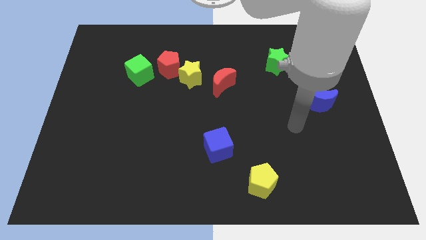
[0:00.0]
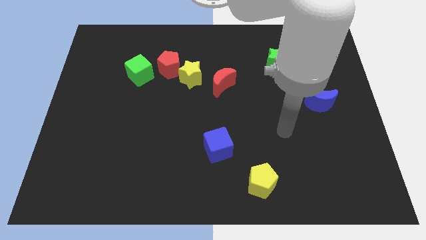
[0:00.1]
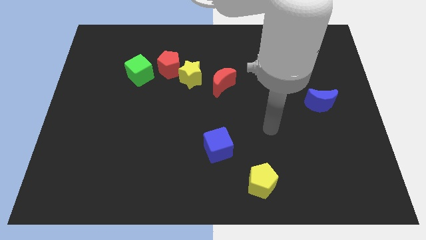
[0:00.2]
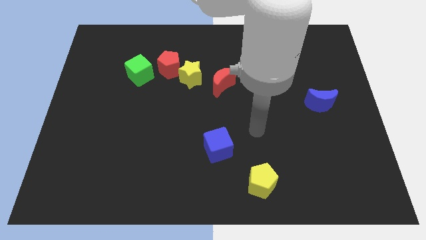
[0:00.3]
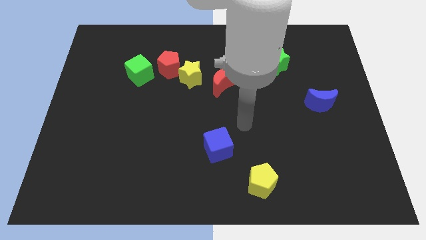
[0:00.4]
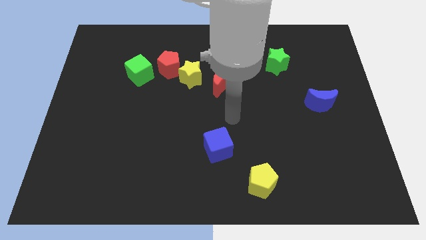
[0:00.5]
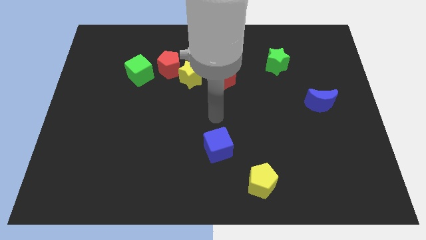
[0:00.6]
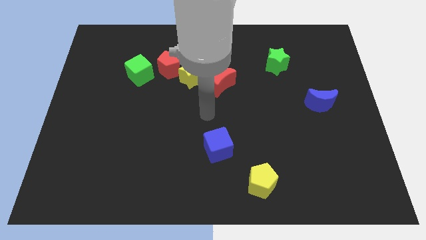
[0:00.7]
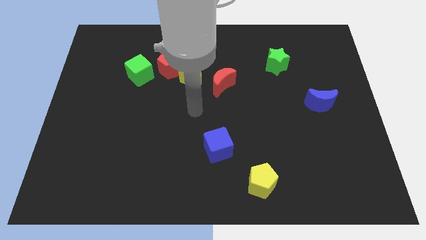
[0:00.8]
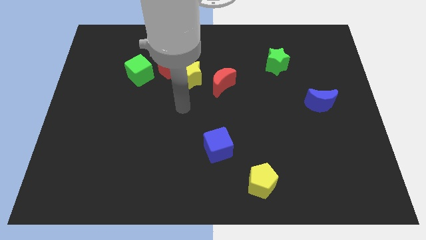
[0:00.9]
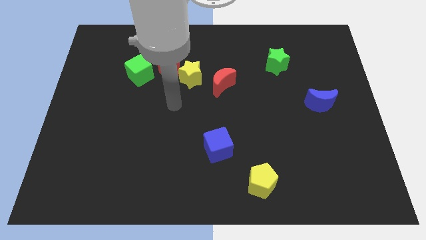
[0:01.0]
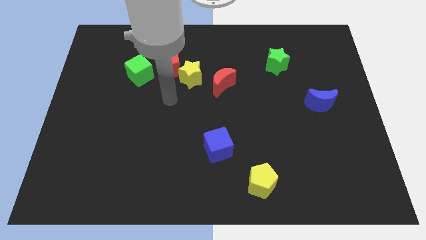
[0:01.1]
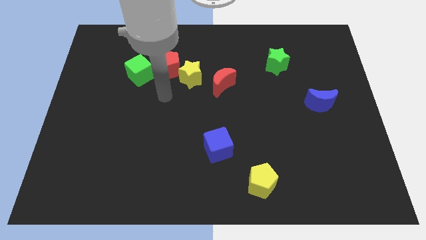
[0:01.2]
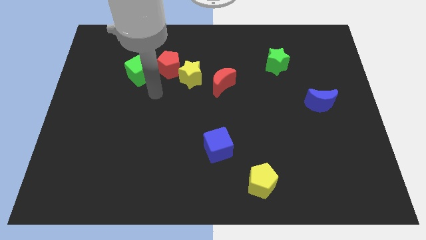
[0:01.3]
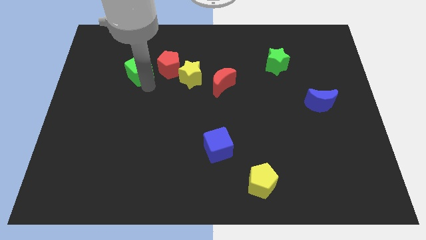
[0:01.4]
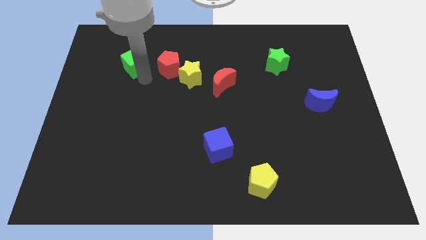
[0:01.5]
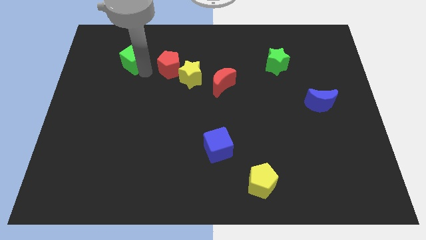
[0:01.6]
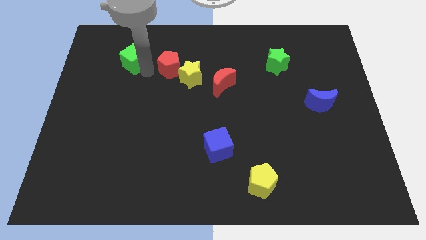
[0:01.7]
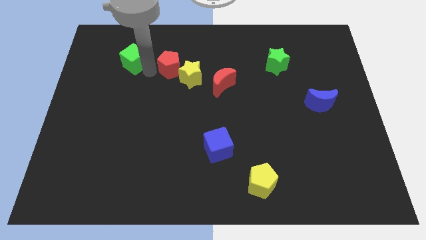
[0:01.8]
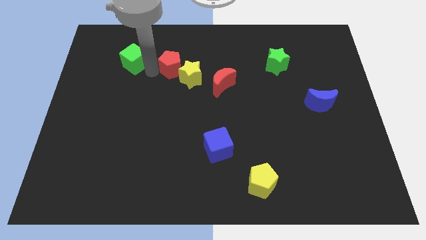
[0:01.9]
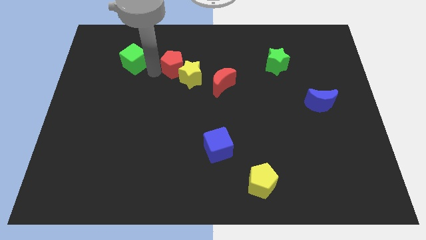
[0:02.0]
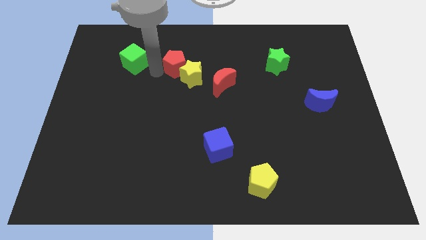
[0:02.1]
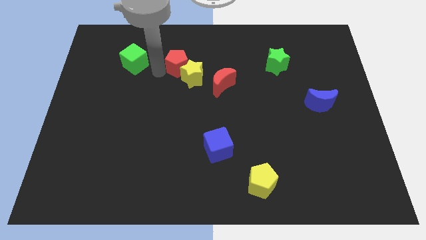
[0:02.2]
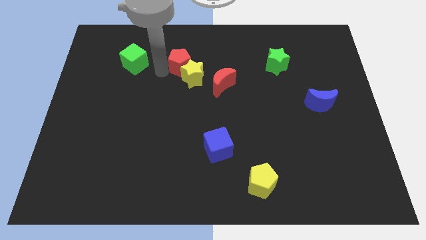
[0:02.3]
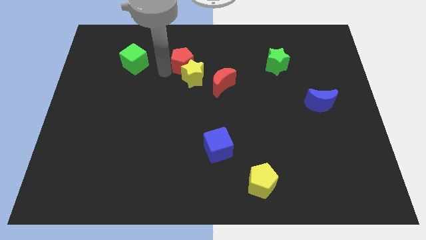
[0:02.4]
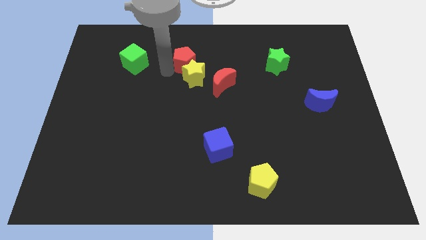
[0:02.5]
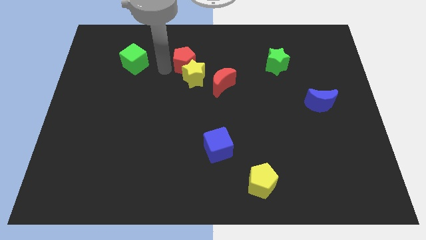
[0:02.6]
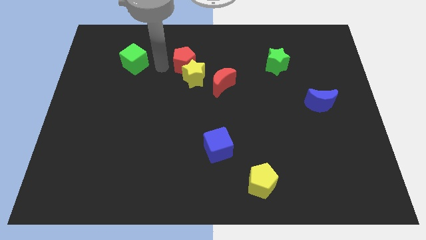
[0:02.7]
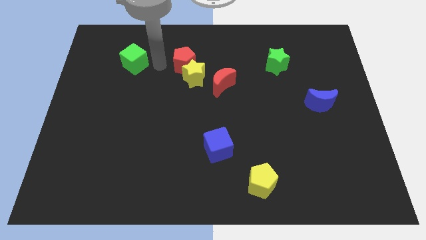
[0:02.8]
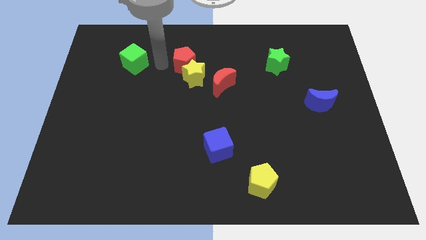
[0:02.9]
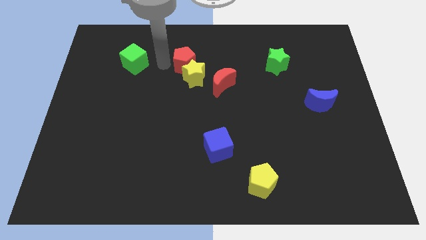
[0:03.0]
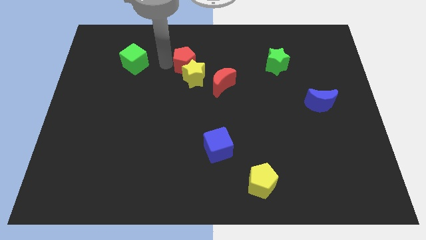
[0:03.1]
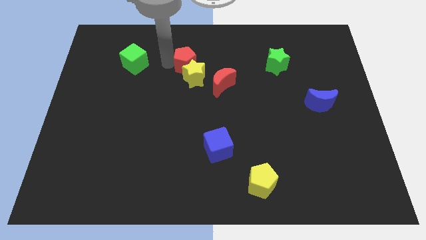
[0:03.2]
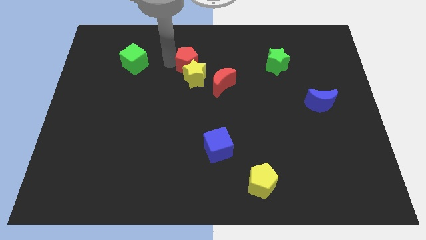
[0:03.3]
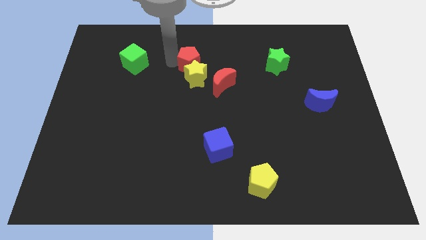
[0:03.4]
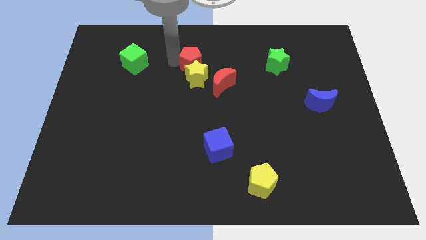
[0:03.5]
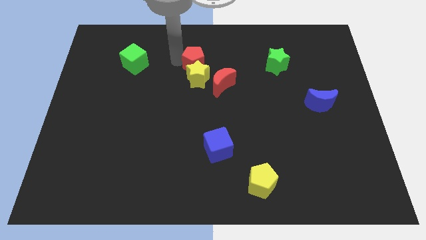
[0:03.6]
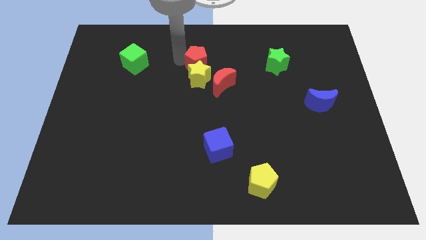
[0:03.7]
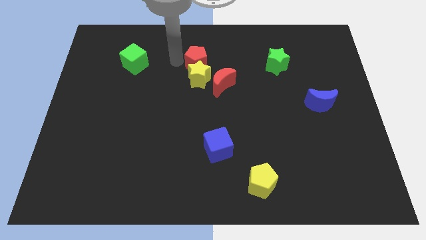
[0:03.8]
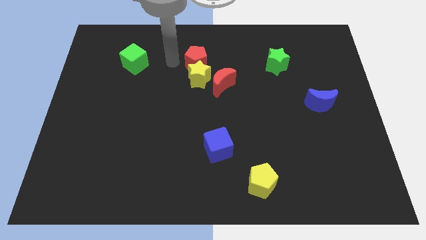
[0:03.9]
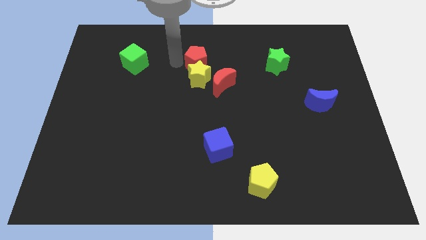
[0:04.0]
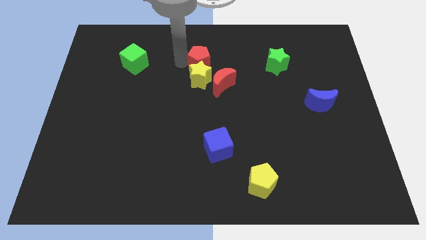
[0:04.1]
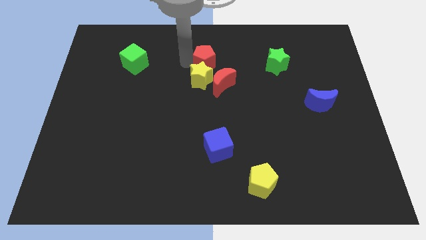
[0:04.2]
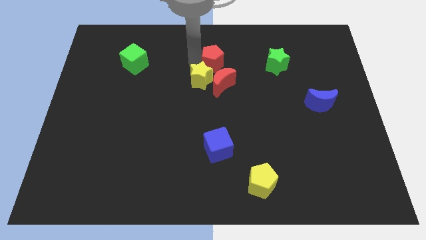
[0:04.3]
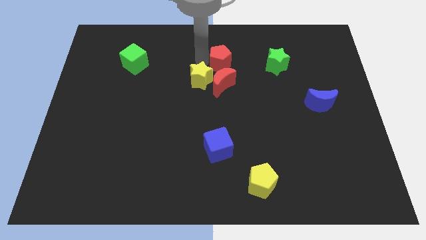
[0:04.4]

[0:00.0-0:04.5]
put the red pentagon left of the green star

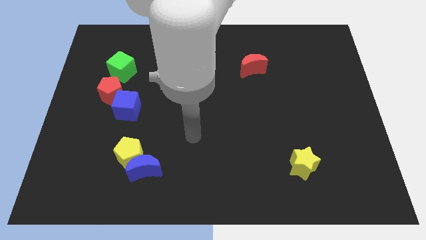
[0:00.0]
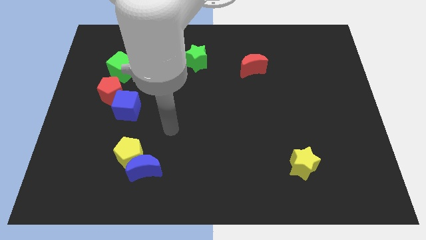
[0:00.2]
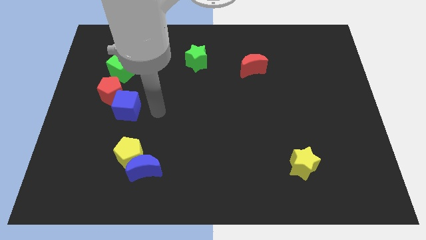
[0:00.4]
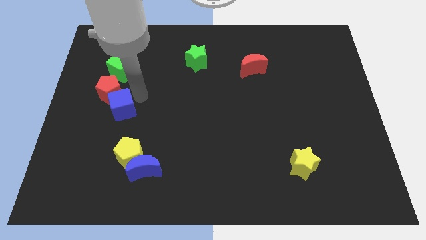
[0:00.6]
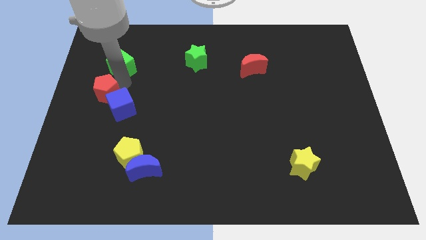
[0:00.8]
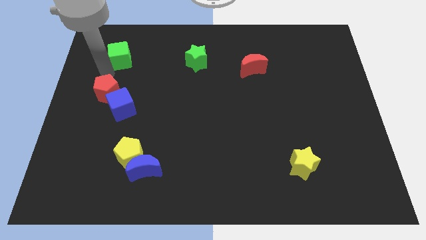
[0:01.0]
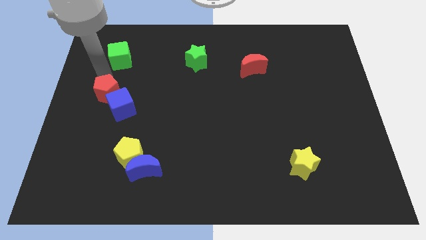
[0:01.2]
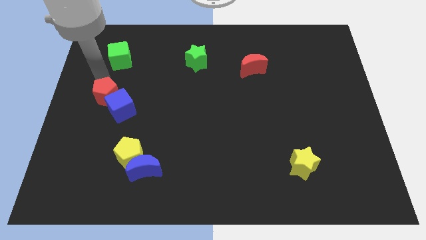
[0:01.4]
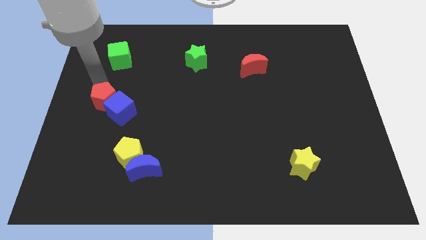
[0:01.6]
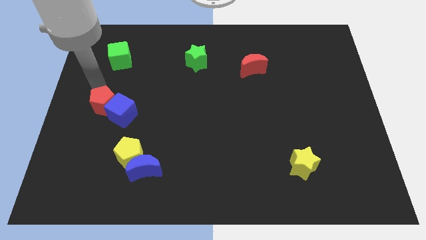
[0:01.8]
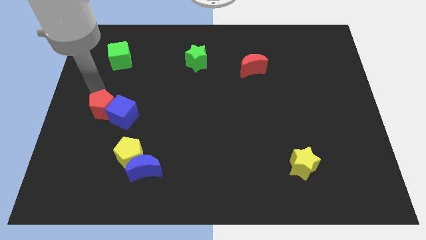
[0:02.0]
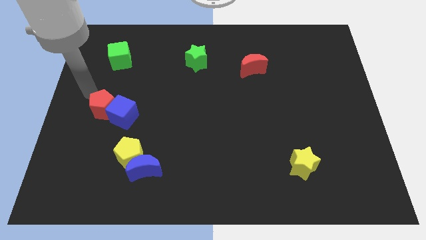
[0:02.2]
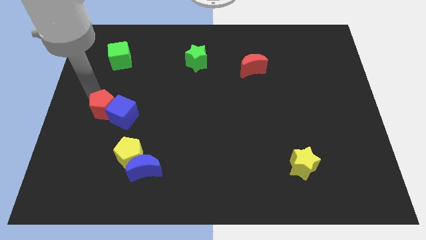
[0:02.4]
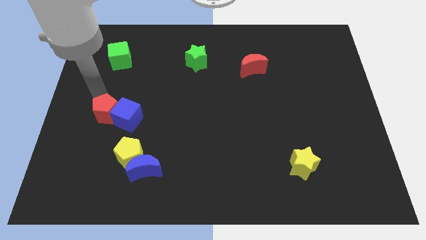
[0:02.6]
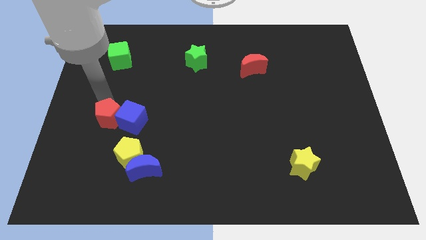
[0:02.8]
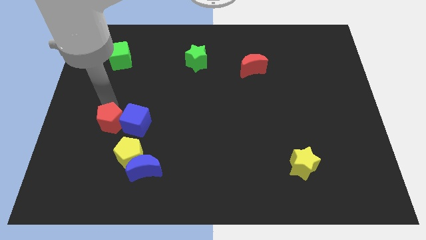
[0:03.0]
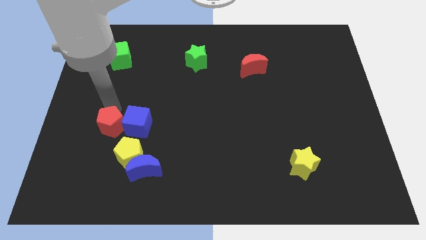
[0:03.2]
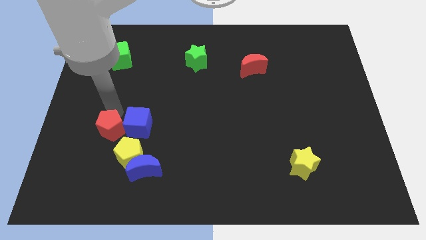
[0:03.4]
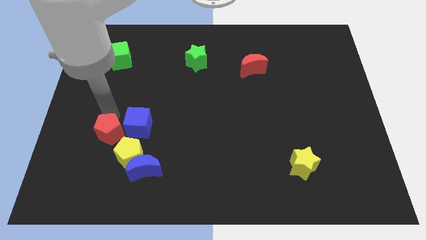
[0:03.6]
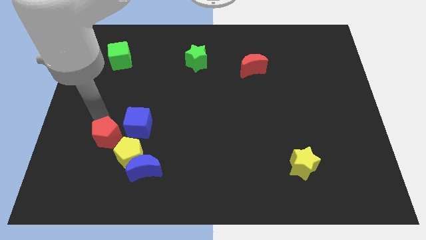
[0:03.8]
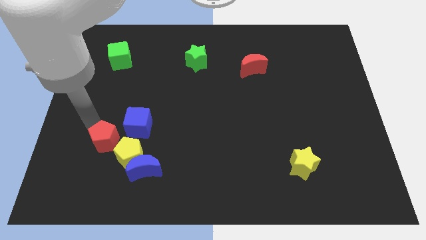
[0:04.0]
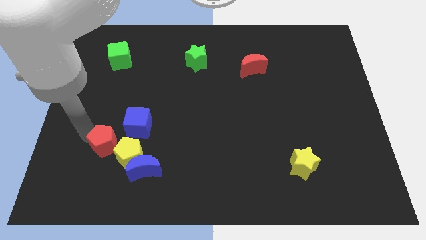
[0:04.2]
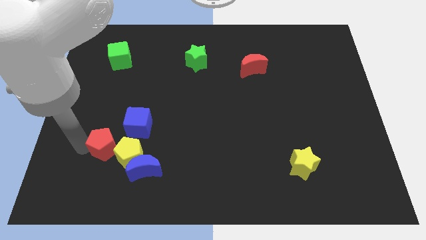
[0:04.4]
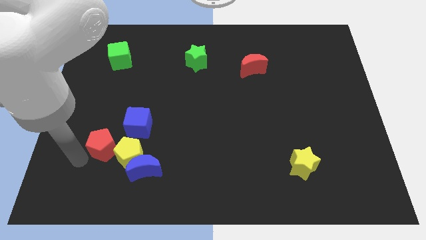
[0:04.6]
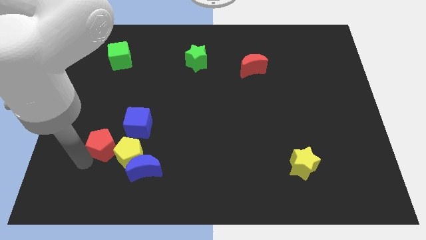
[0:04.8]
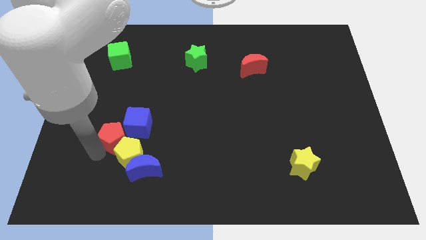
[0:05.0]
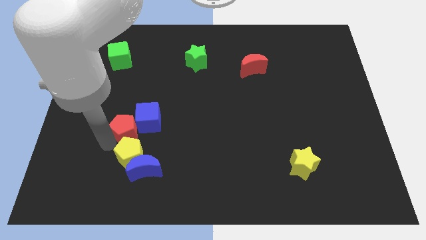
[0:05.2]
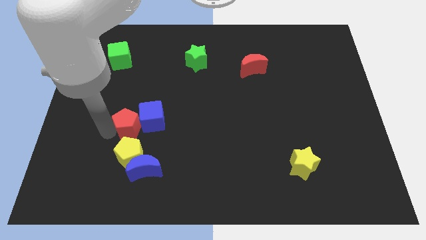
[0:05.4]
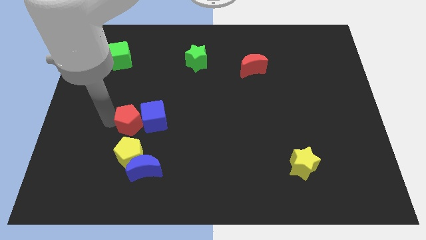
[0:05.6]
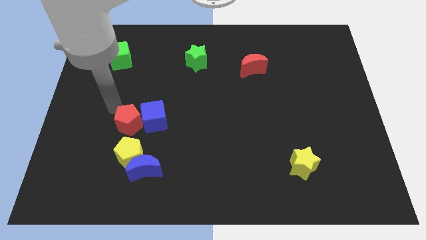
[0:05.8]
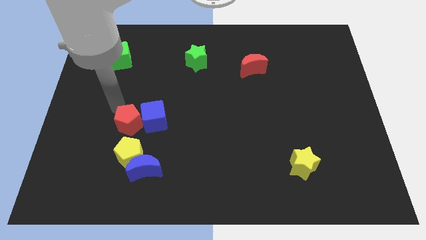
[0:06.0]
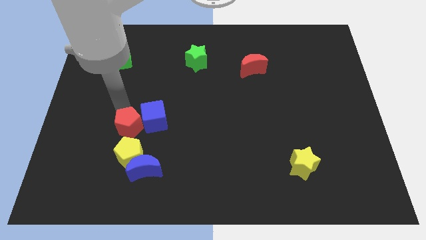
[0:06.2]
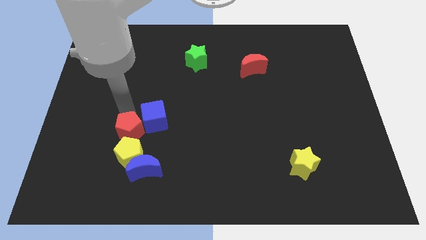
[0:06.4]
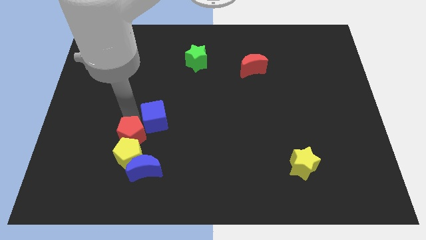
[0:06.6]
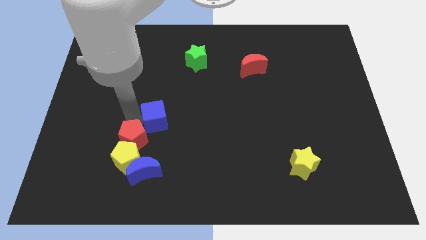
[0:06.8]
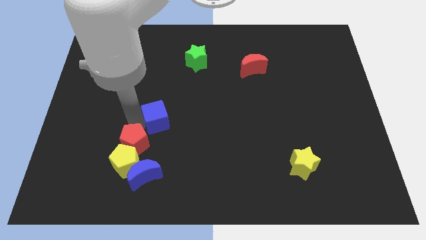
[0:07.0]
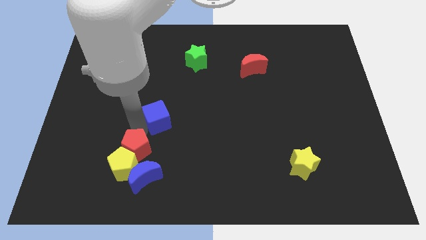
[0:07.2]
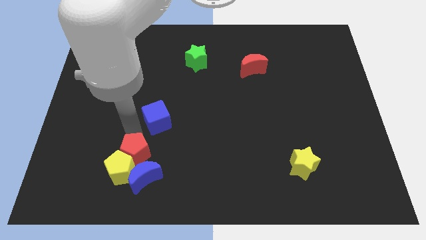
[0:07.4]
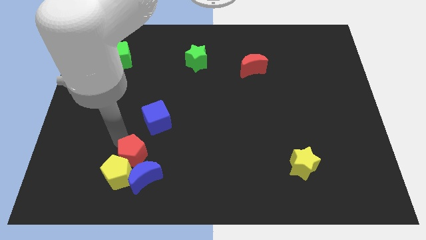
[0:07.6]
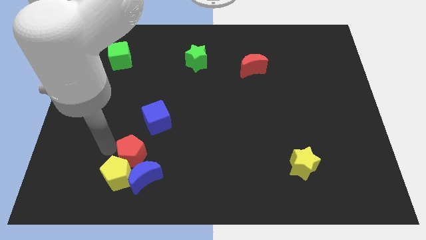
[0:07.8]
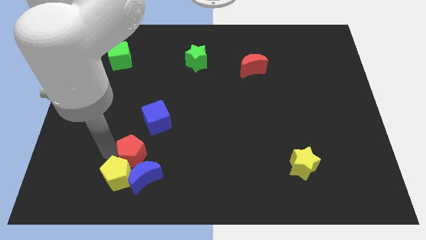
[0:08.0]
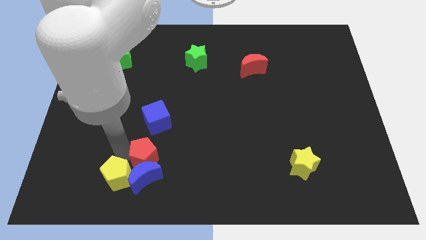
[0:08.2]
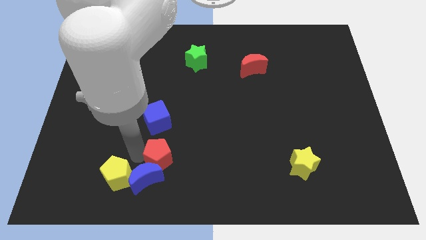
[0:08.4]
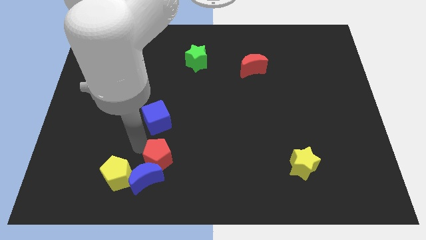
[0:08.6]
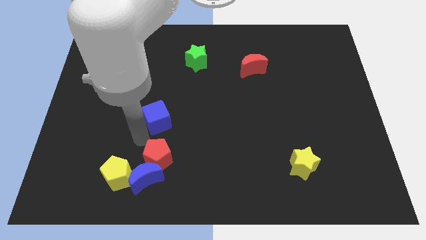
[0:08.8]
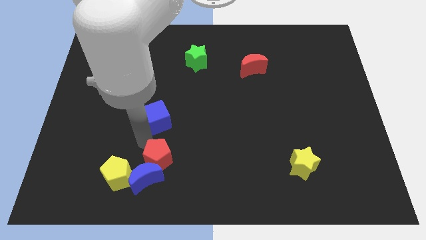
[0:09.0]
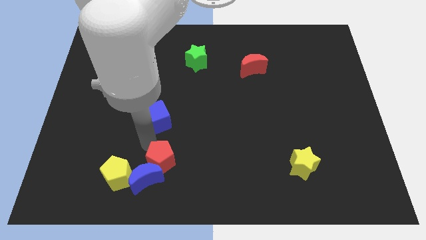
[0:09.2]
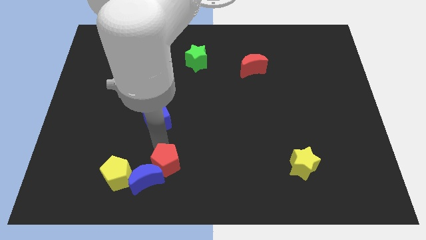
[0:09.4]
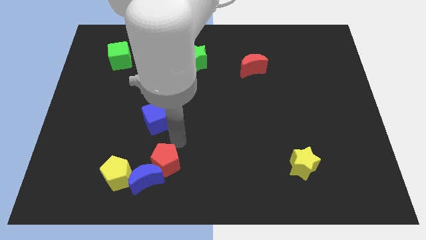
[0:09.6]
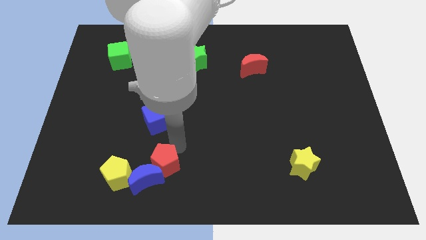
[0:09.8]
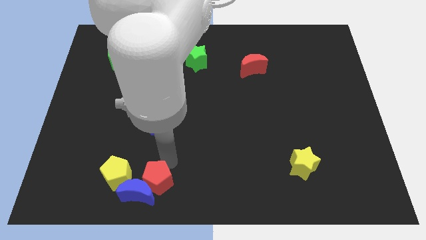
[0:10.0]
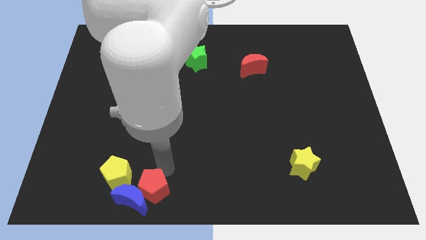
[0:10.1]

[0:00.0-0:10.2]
put the red pentagon to the bottom right side of the yellow pentagon
